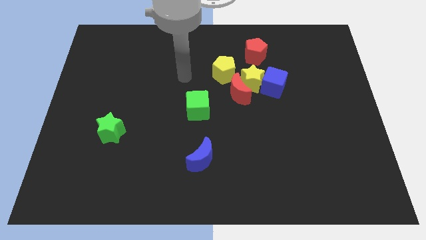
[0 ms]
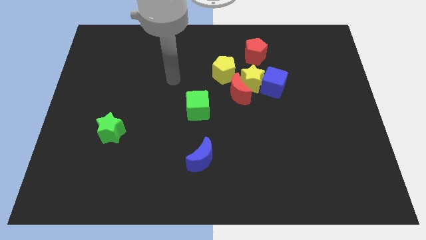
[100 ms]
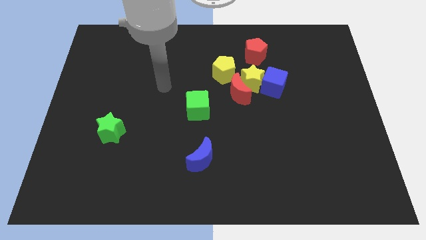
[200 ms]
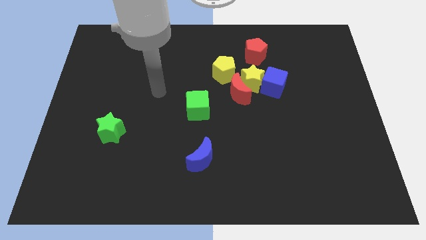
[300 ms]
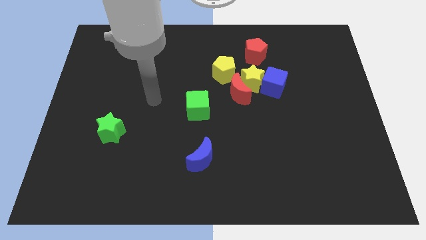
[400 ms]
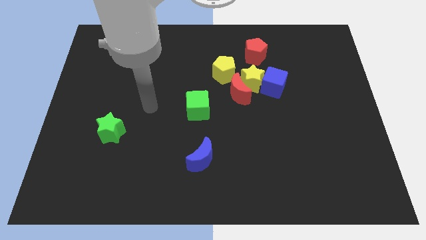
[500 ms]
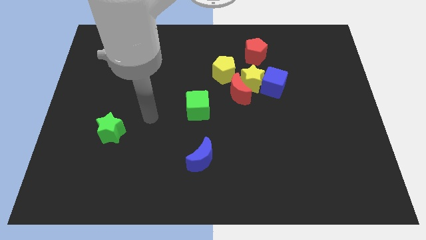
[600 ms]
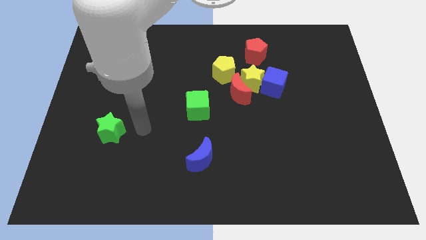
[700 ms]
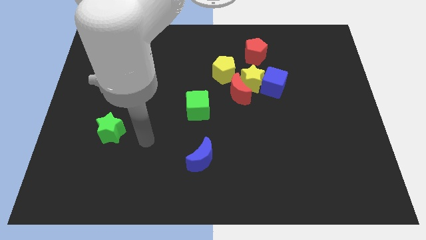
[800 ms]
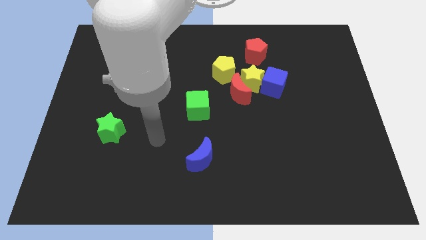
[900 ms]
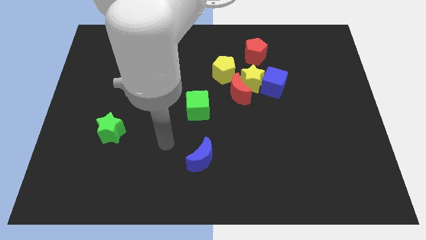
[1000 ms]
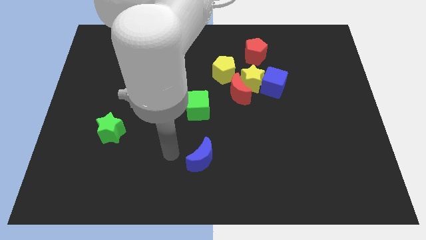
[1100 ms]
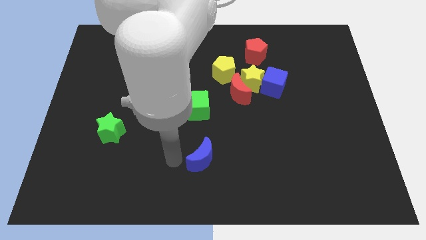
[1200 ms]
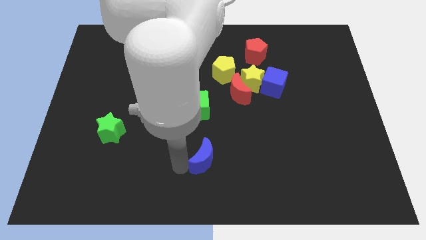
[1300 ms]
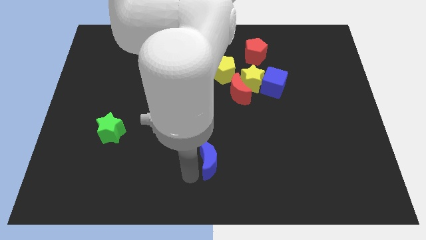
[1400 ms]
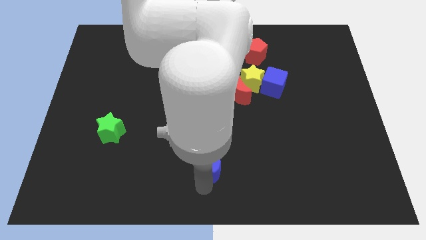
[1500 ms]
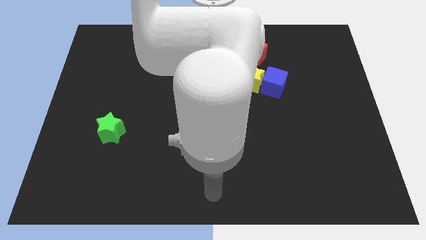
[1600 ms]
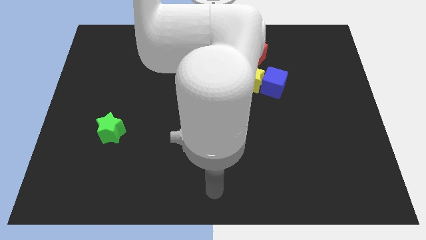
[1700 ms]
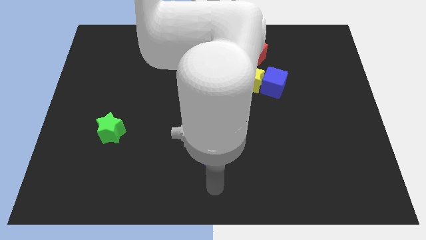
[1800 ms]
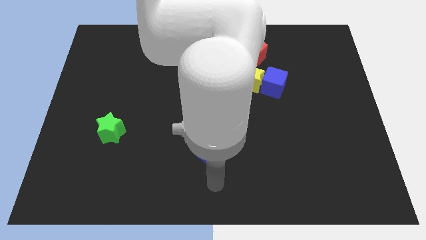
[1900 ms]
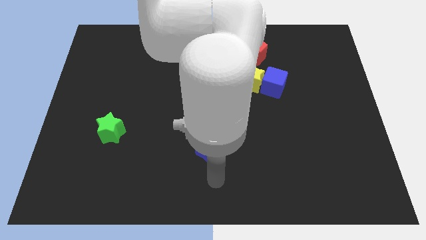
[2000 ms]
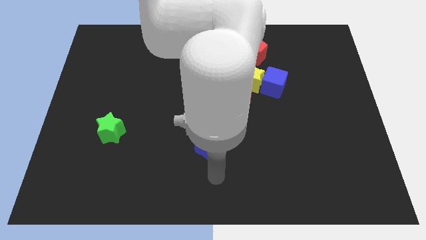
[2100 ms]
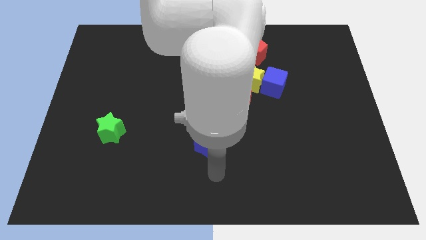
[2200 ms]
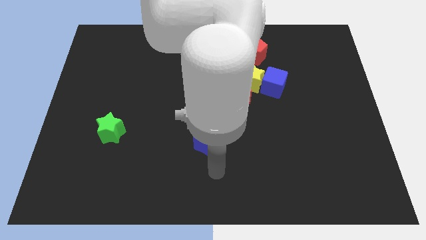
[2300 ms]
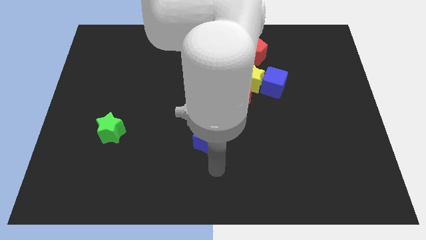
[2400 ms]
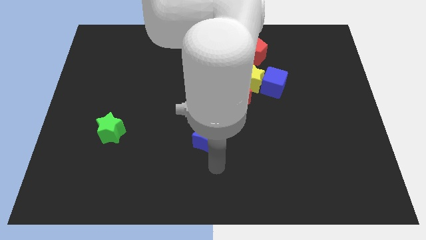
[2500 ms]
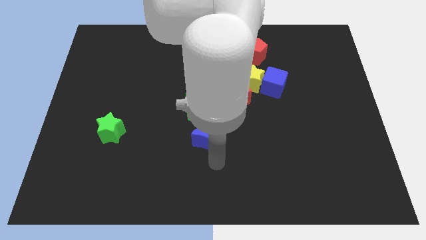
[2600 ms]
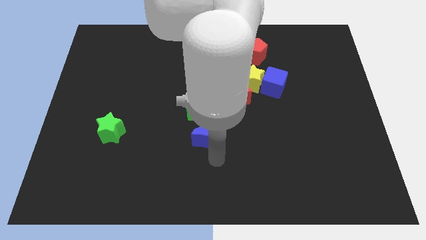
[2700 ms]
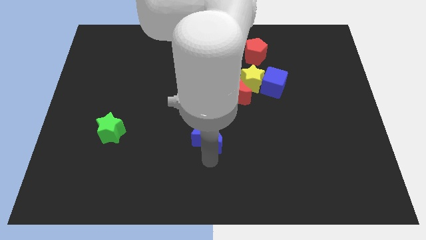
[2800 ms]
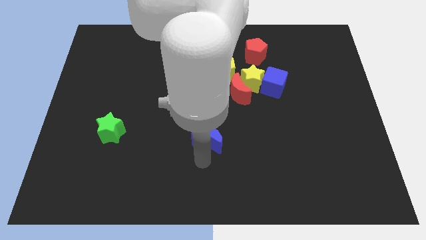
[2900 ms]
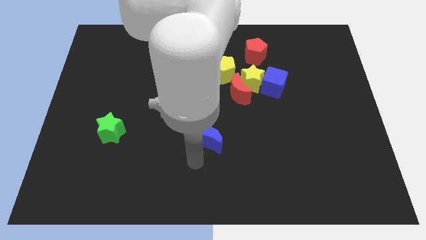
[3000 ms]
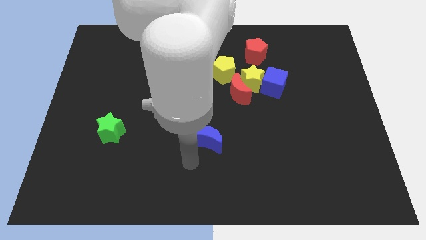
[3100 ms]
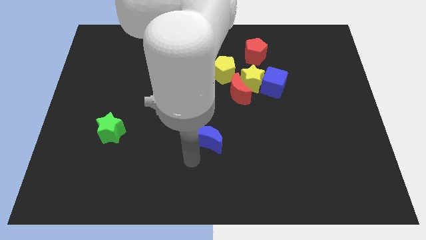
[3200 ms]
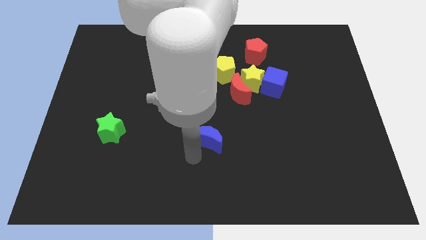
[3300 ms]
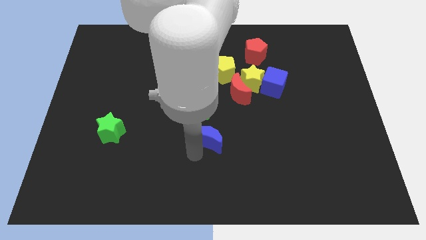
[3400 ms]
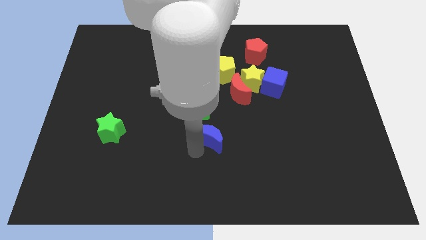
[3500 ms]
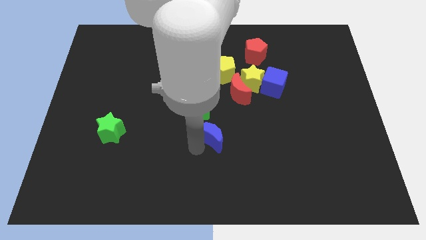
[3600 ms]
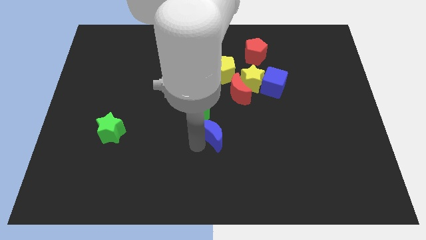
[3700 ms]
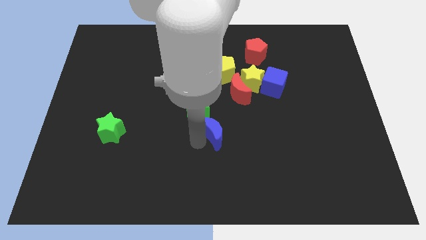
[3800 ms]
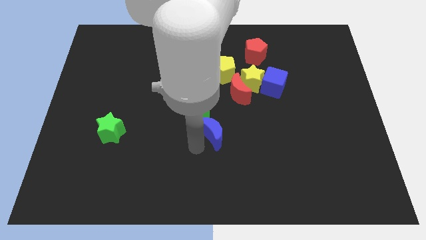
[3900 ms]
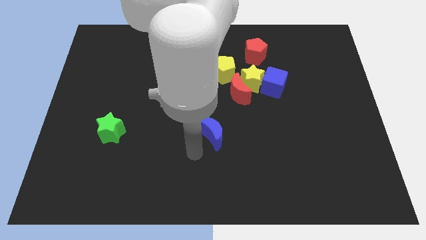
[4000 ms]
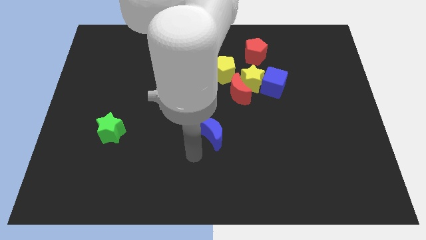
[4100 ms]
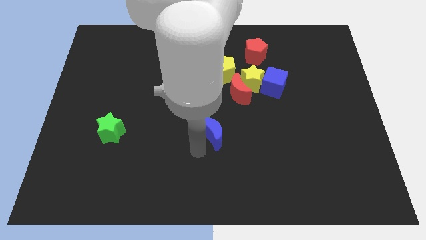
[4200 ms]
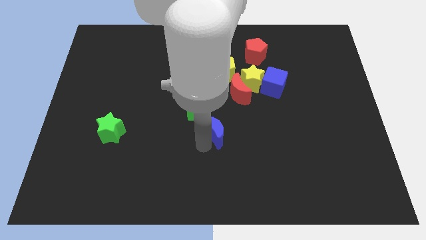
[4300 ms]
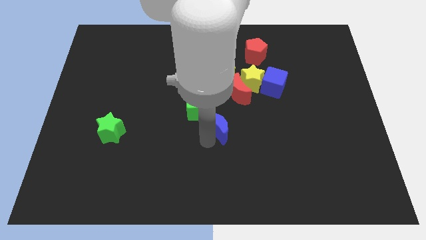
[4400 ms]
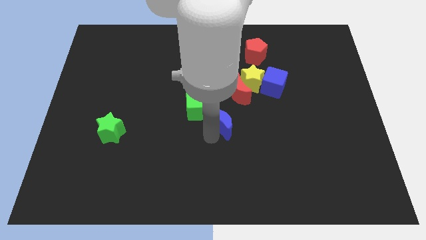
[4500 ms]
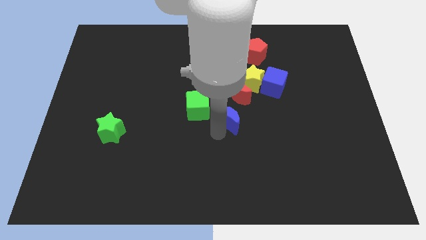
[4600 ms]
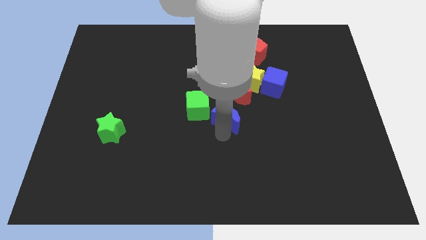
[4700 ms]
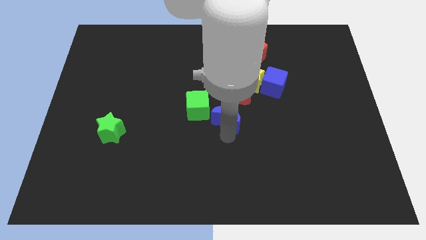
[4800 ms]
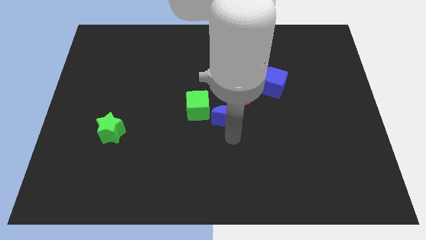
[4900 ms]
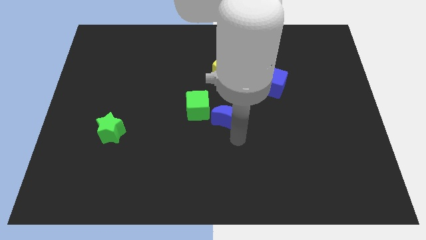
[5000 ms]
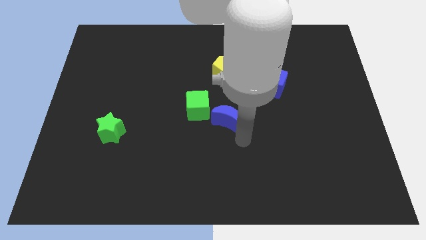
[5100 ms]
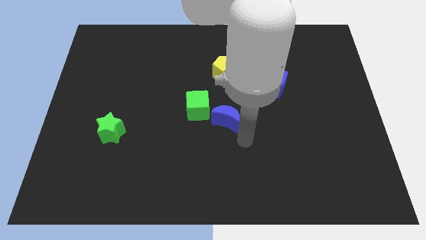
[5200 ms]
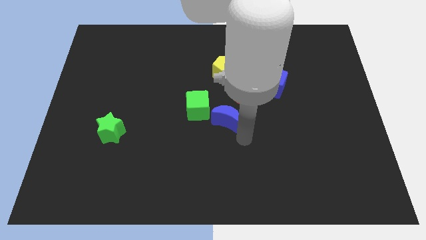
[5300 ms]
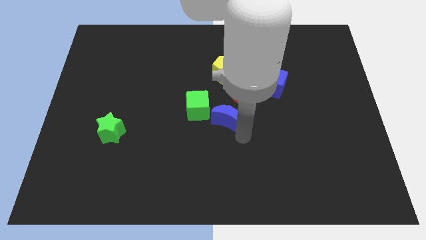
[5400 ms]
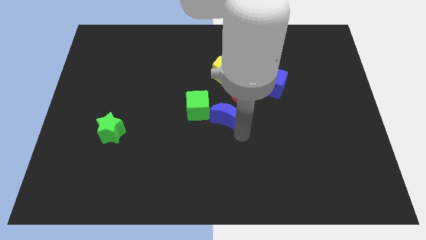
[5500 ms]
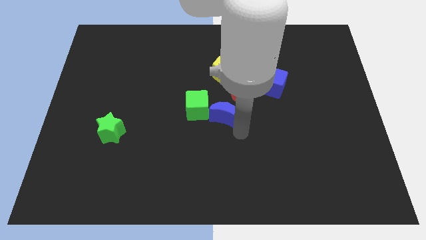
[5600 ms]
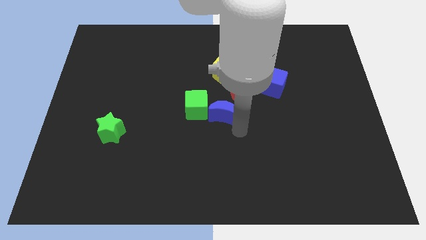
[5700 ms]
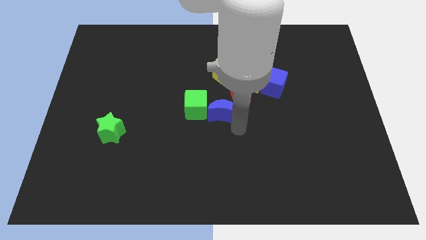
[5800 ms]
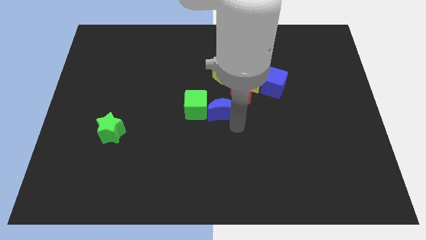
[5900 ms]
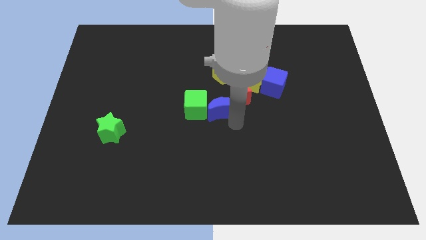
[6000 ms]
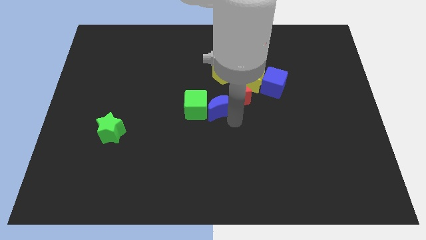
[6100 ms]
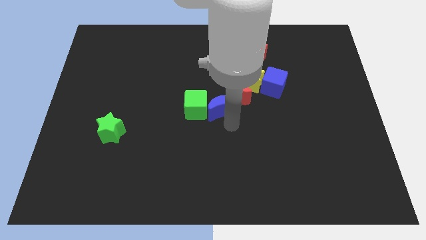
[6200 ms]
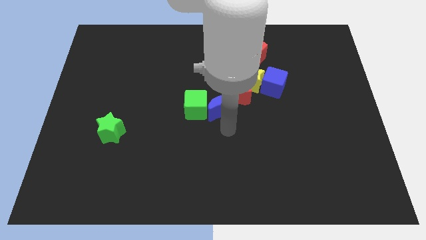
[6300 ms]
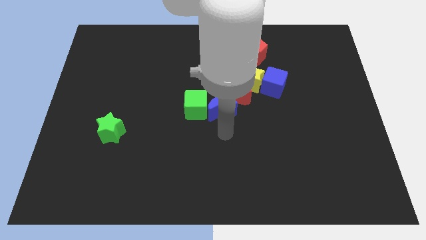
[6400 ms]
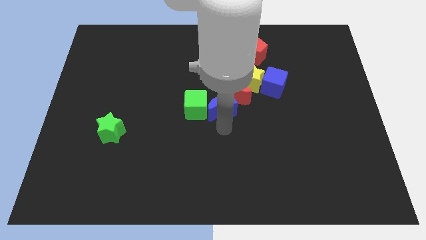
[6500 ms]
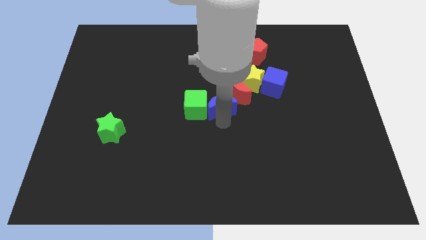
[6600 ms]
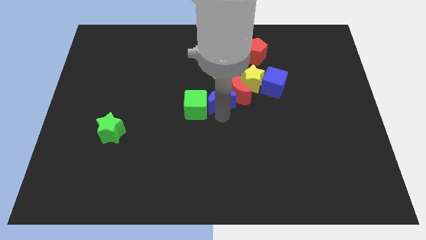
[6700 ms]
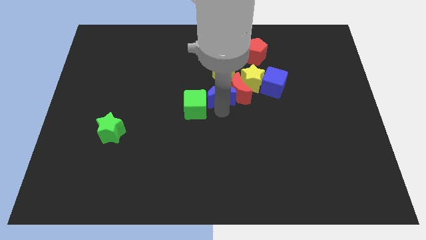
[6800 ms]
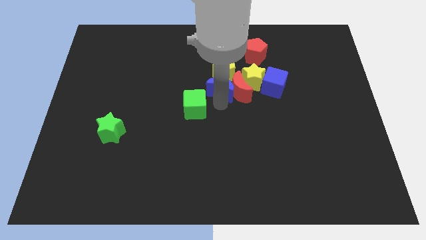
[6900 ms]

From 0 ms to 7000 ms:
move the blue moon next to the yellow pentagon

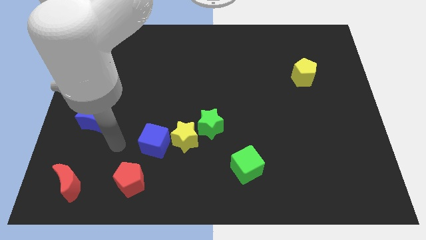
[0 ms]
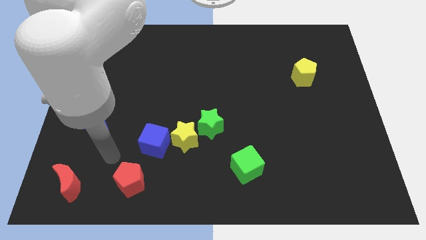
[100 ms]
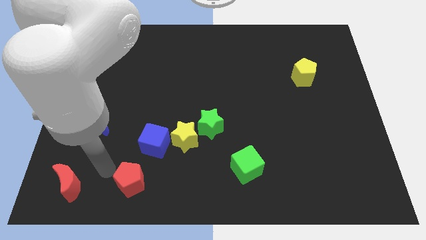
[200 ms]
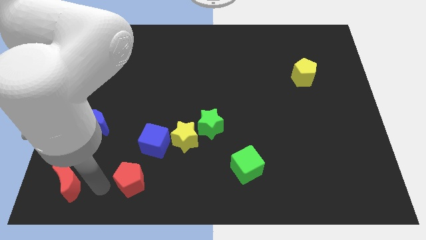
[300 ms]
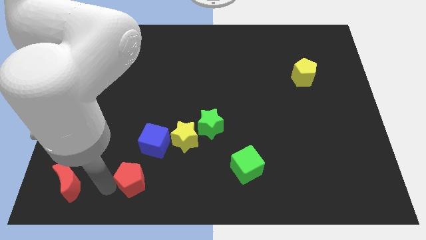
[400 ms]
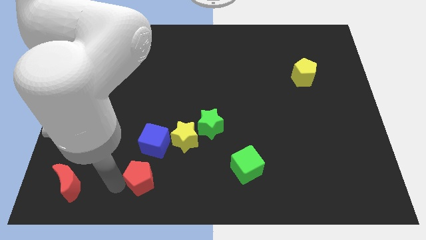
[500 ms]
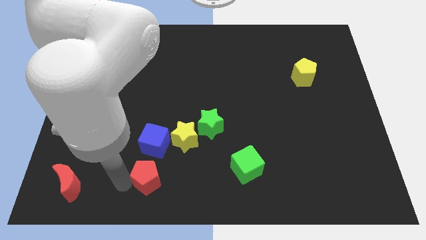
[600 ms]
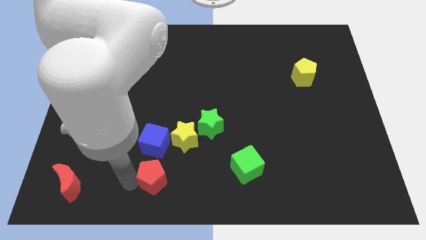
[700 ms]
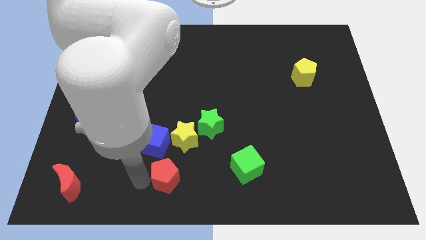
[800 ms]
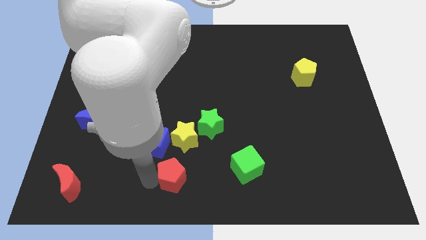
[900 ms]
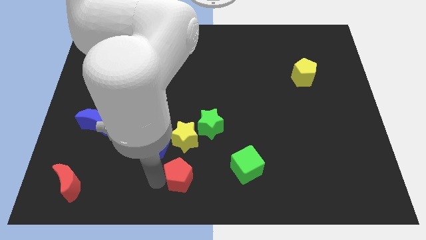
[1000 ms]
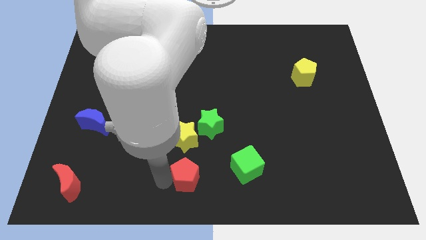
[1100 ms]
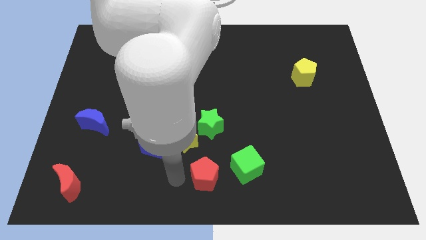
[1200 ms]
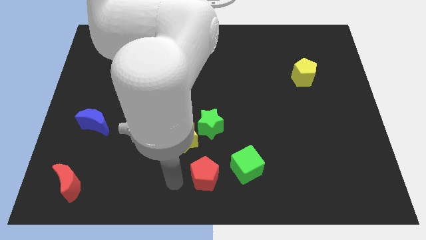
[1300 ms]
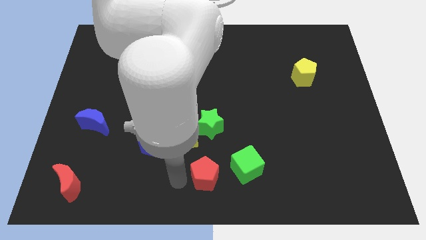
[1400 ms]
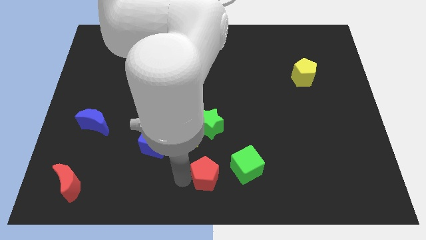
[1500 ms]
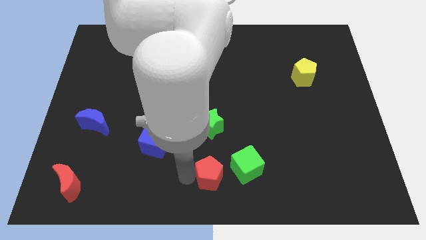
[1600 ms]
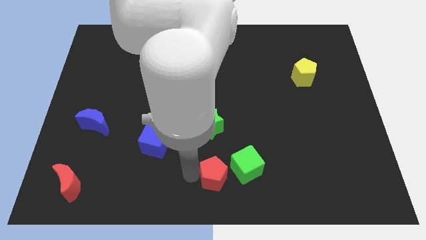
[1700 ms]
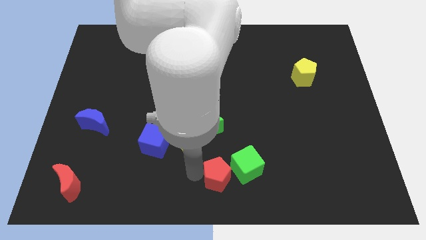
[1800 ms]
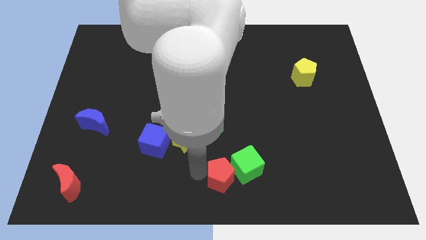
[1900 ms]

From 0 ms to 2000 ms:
put the red pentagon close to the green cube
